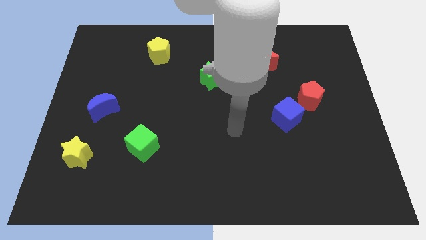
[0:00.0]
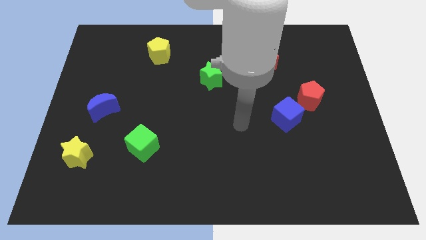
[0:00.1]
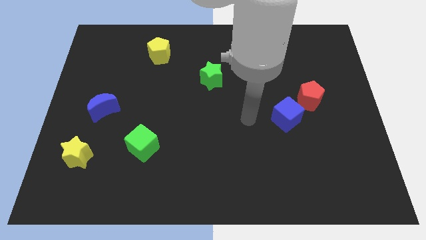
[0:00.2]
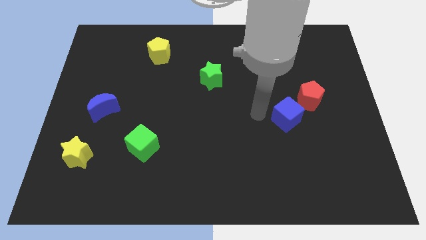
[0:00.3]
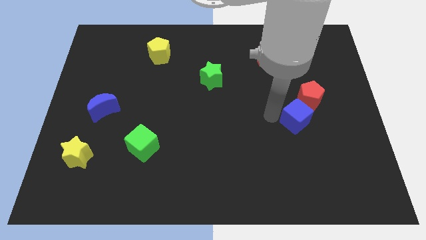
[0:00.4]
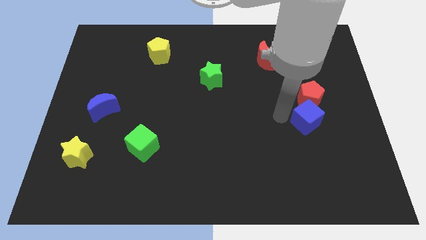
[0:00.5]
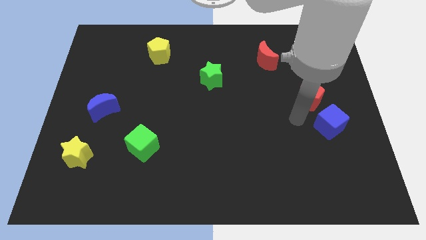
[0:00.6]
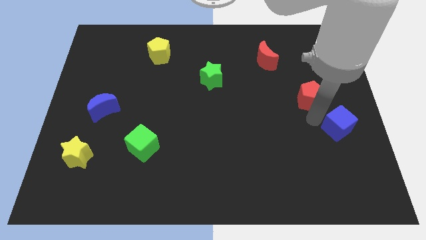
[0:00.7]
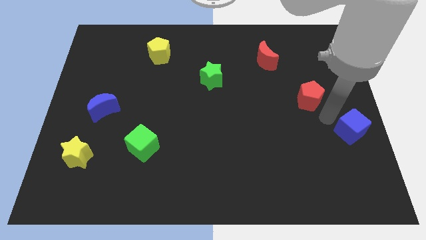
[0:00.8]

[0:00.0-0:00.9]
move the red pentagon away from the blue cube

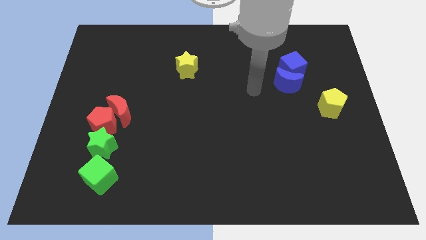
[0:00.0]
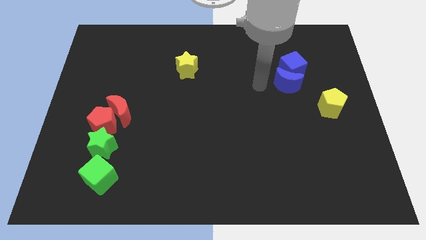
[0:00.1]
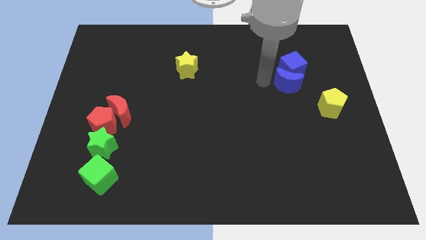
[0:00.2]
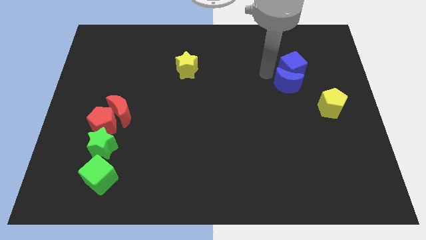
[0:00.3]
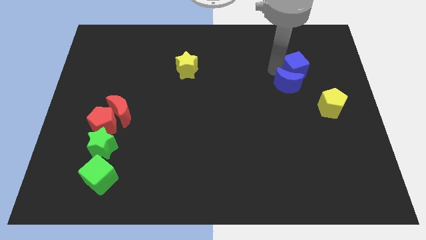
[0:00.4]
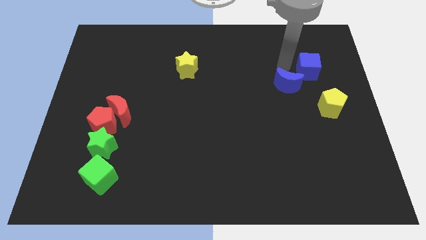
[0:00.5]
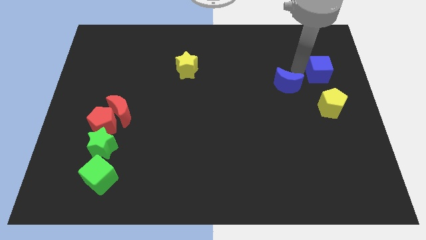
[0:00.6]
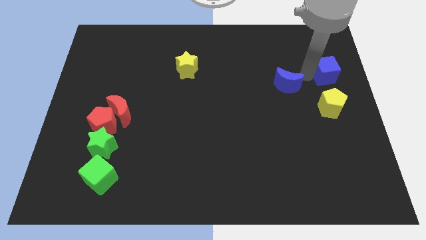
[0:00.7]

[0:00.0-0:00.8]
separate the blue moon from the blue cube

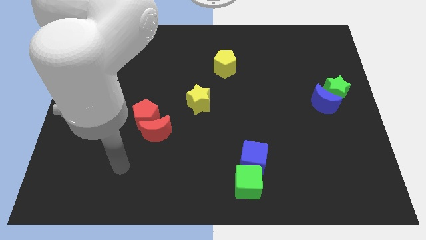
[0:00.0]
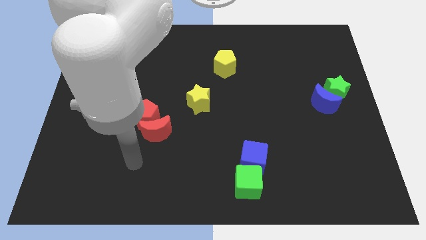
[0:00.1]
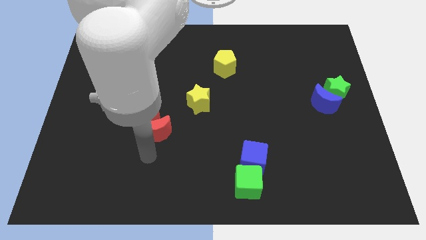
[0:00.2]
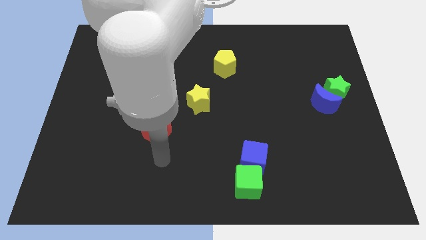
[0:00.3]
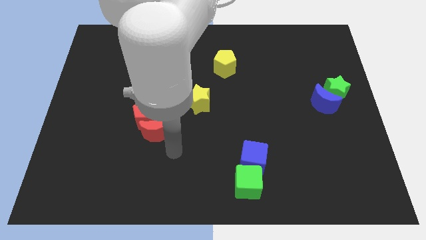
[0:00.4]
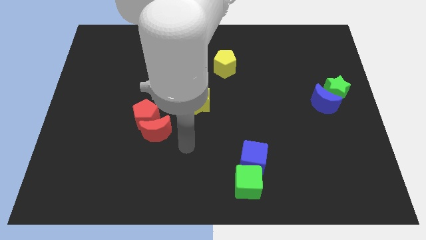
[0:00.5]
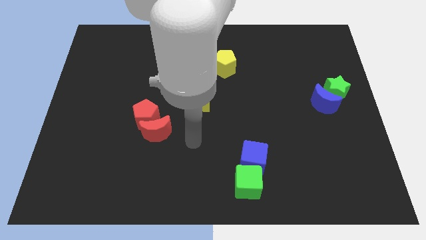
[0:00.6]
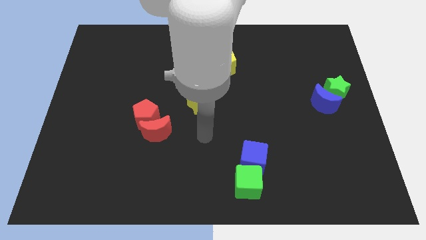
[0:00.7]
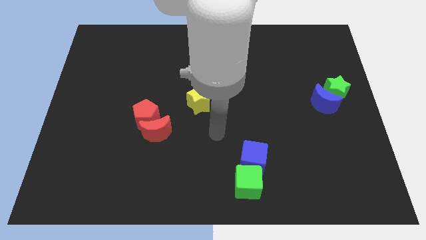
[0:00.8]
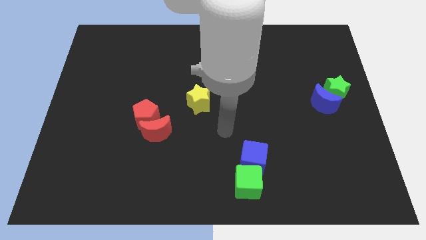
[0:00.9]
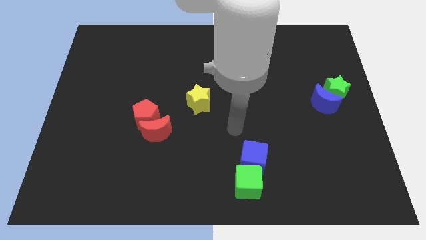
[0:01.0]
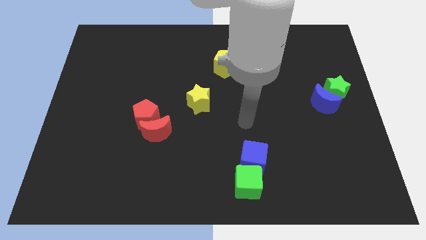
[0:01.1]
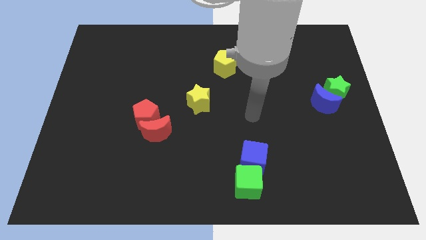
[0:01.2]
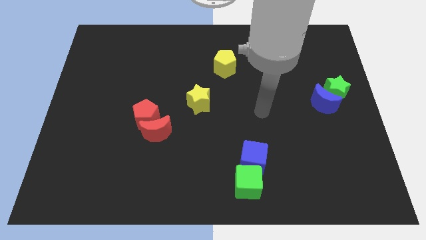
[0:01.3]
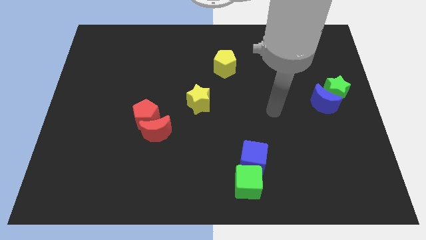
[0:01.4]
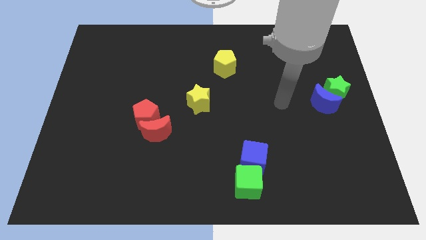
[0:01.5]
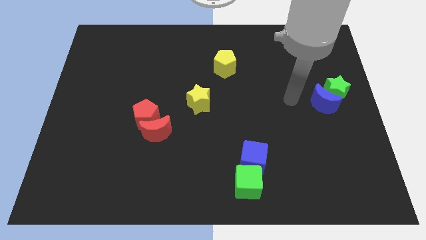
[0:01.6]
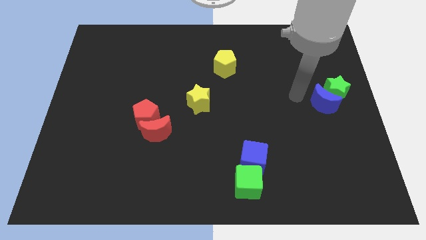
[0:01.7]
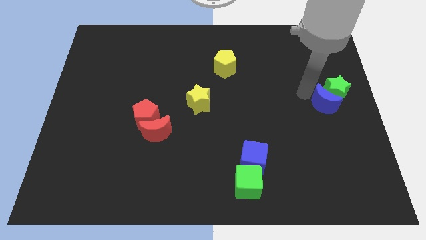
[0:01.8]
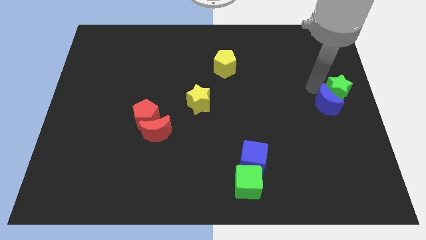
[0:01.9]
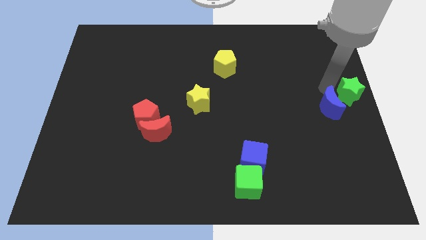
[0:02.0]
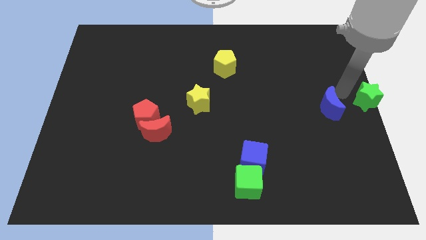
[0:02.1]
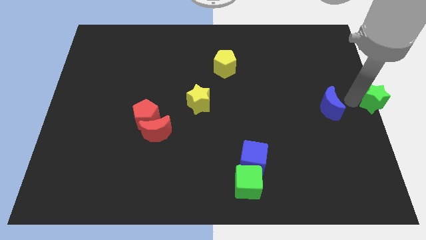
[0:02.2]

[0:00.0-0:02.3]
pull the blue moon apart from the green star

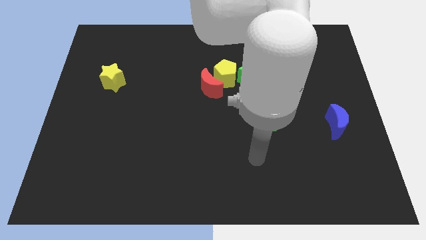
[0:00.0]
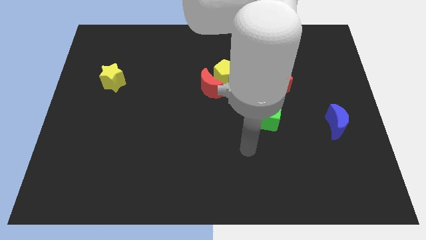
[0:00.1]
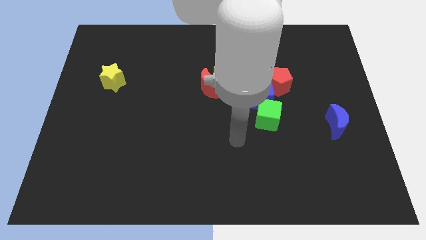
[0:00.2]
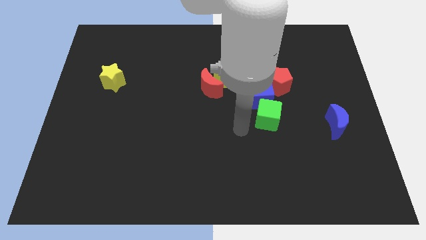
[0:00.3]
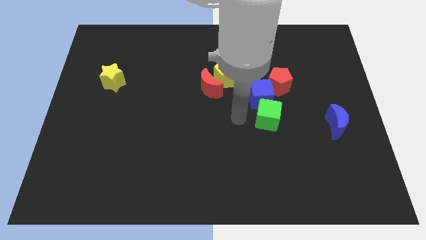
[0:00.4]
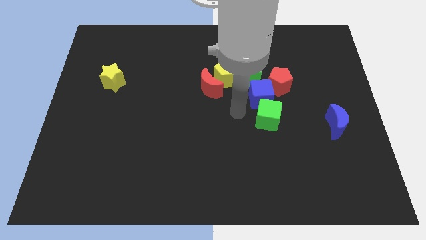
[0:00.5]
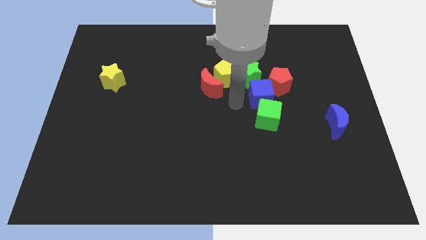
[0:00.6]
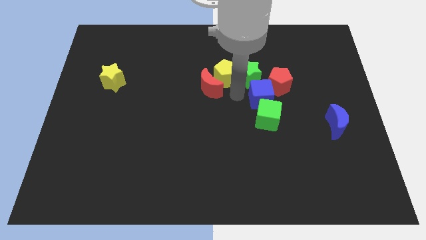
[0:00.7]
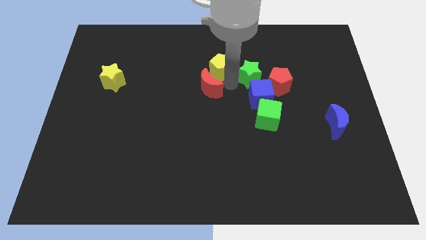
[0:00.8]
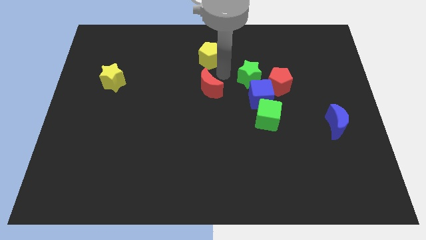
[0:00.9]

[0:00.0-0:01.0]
pull the red moon apart from the yellow pentagon

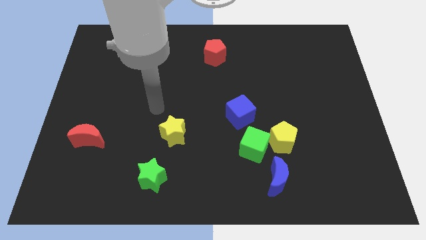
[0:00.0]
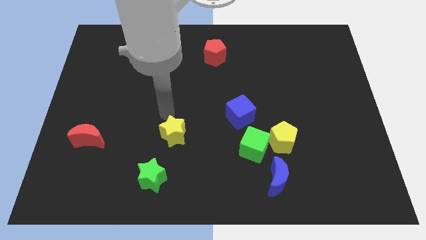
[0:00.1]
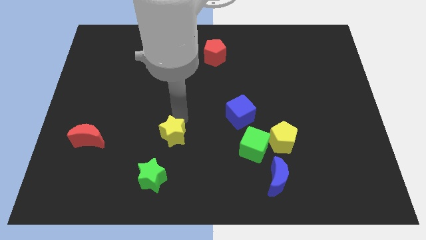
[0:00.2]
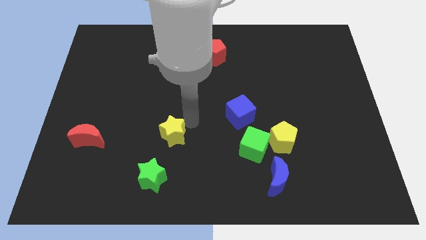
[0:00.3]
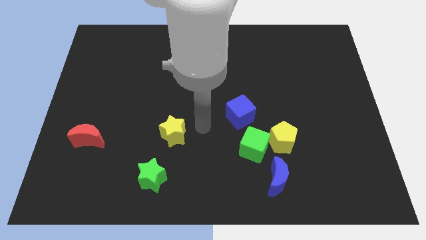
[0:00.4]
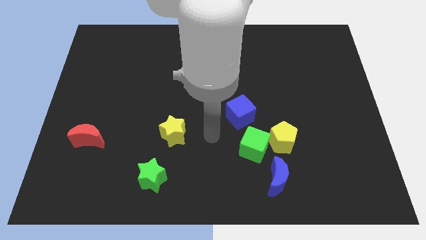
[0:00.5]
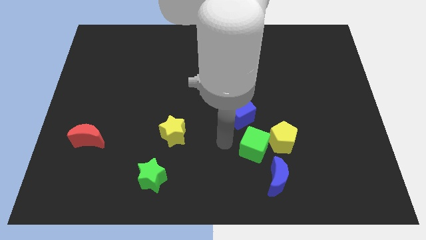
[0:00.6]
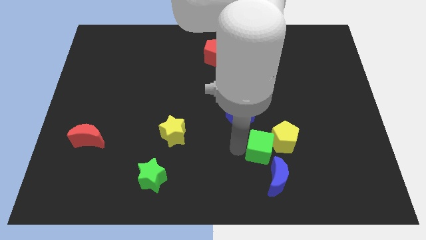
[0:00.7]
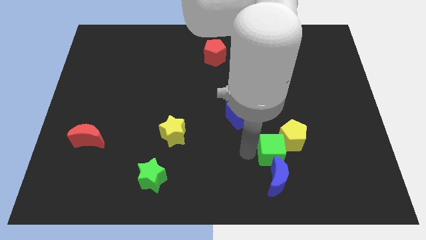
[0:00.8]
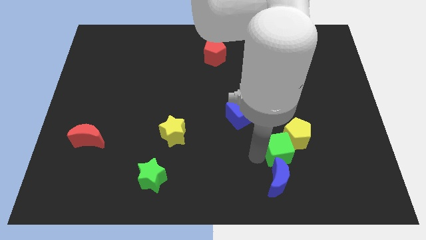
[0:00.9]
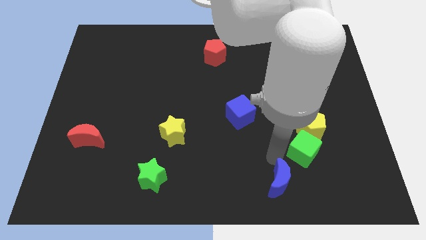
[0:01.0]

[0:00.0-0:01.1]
pull the yellow pentagon apart from the green cube and blue moon

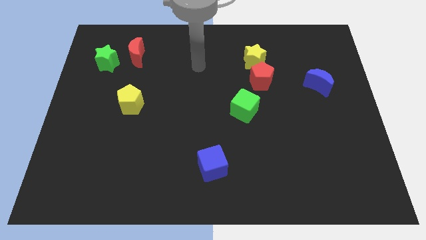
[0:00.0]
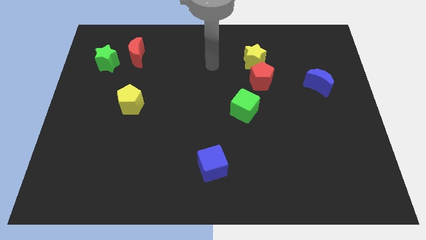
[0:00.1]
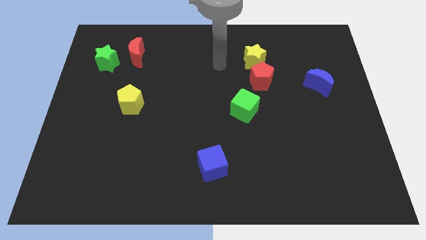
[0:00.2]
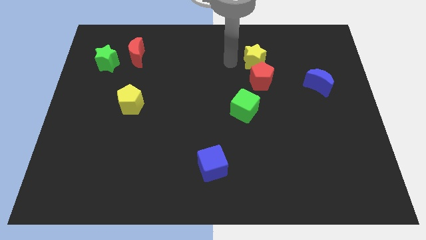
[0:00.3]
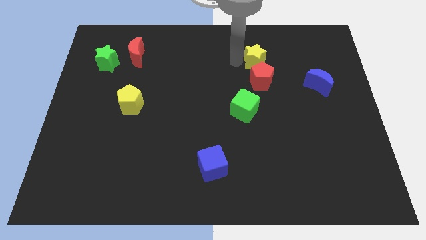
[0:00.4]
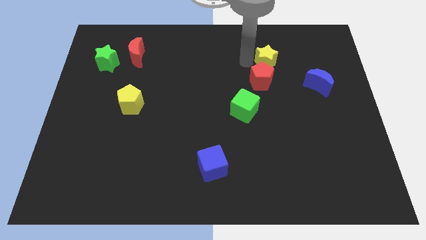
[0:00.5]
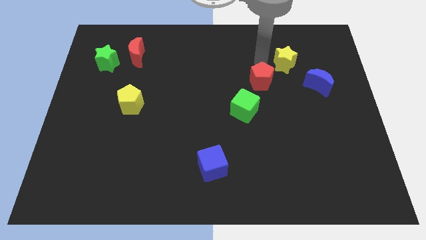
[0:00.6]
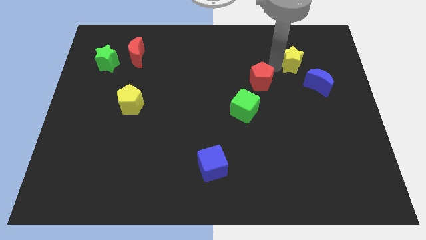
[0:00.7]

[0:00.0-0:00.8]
pull the red pentagon apart from the yellow star

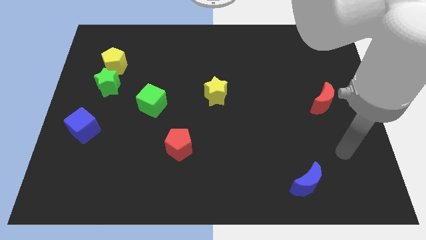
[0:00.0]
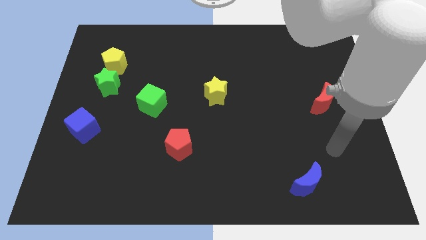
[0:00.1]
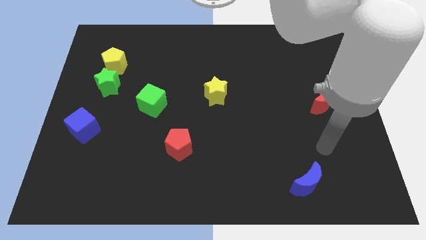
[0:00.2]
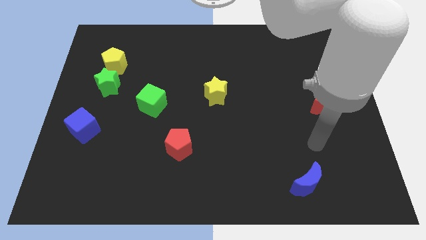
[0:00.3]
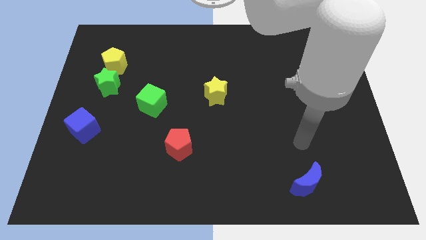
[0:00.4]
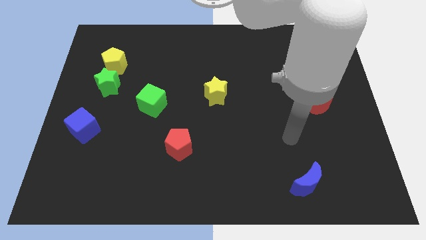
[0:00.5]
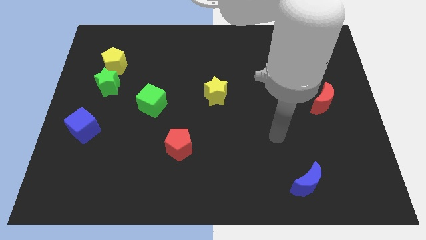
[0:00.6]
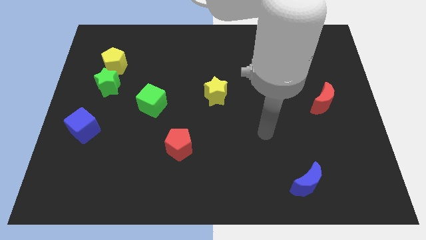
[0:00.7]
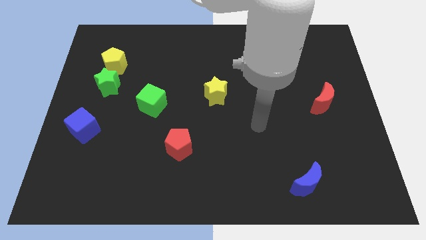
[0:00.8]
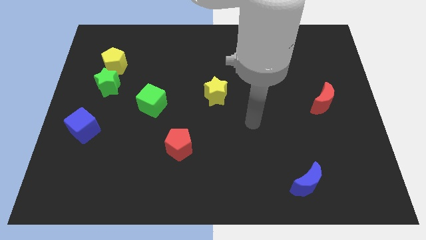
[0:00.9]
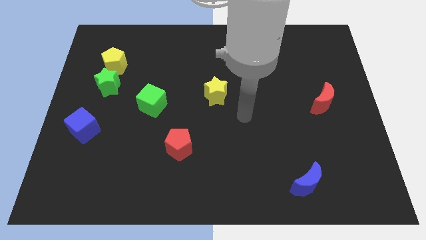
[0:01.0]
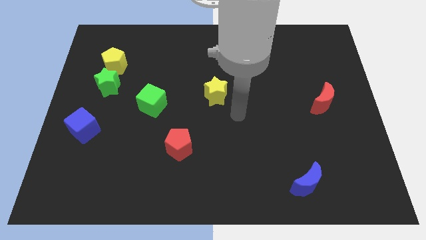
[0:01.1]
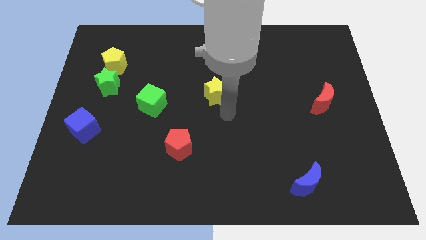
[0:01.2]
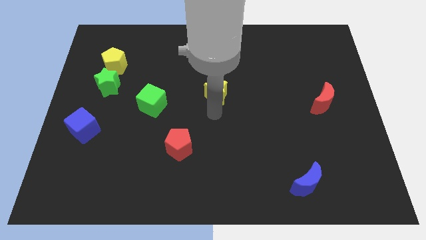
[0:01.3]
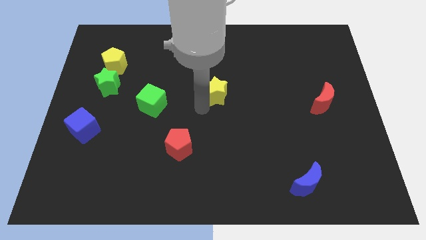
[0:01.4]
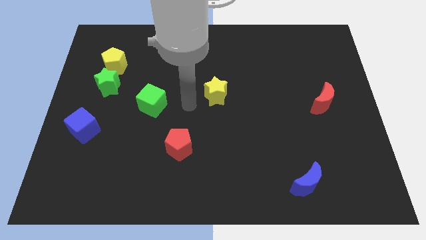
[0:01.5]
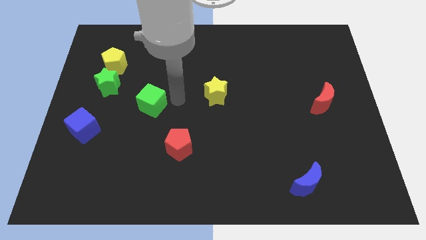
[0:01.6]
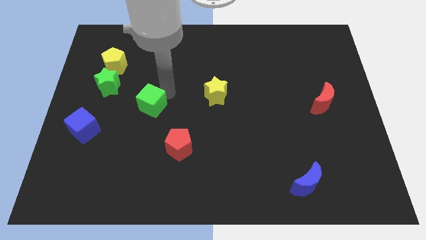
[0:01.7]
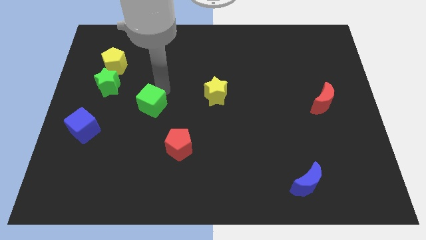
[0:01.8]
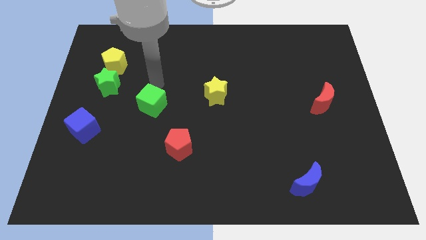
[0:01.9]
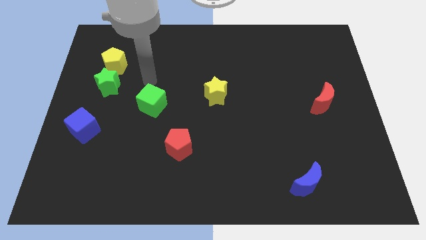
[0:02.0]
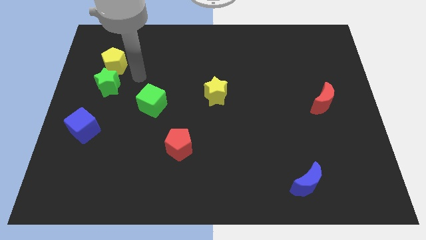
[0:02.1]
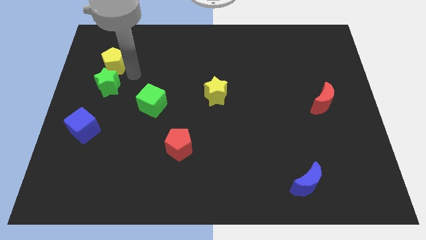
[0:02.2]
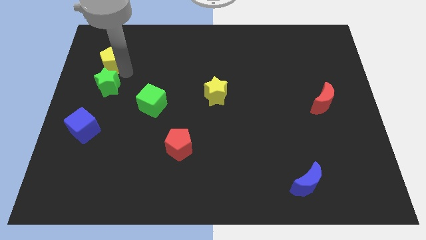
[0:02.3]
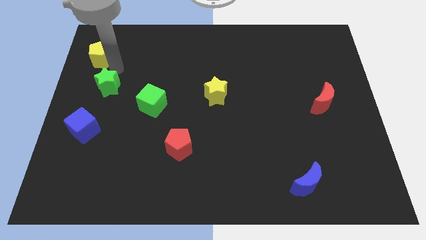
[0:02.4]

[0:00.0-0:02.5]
separate the green star from the yellow pentagon

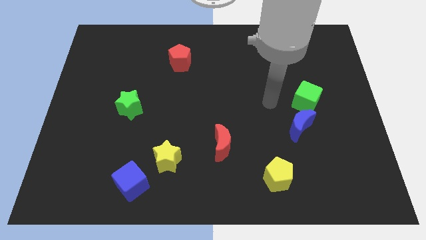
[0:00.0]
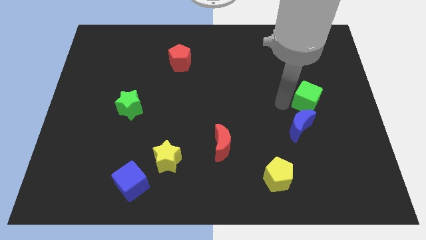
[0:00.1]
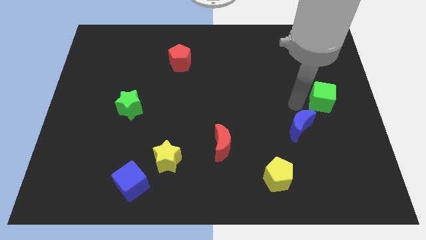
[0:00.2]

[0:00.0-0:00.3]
move the blue moon away from the green cube
